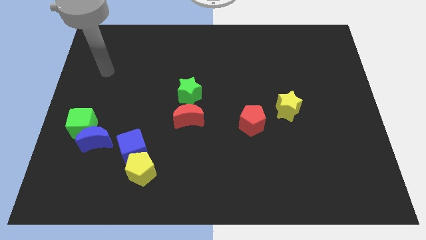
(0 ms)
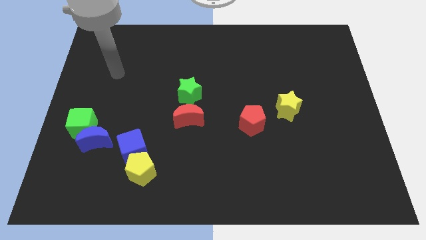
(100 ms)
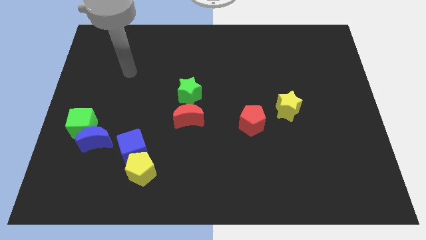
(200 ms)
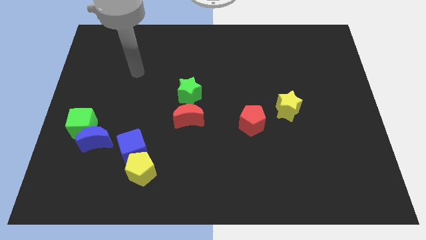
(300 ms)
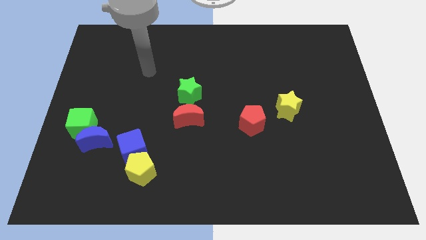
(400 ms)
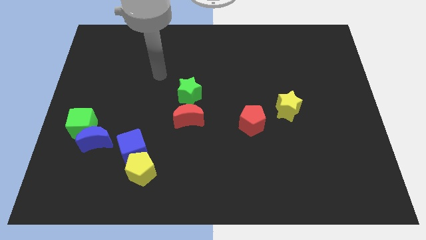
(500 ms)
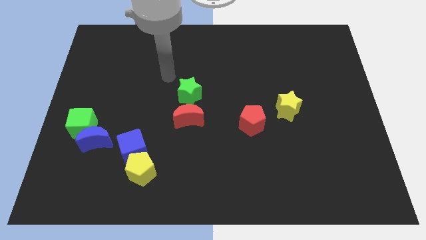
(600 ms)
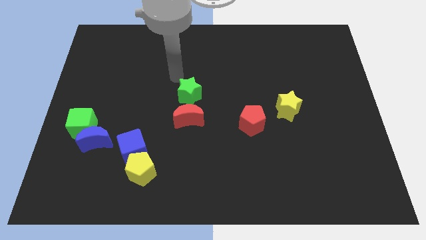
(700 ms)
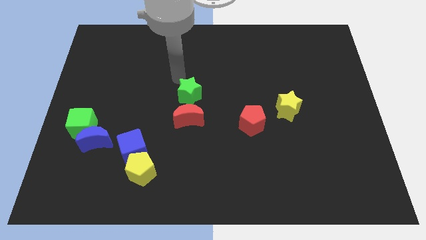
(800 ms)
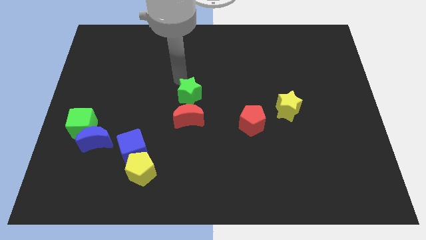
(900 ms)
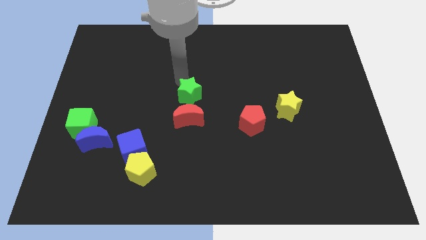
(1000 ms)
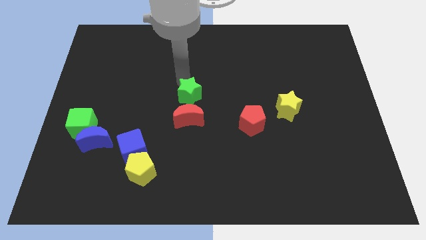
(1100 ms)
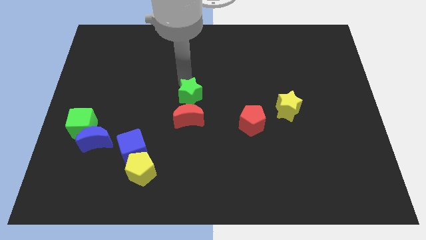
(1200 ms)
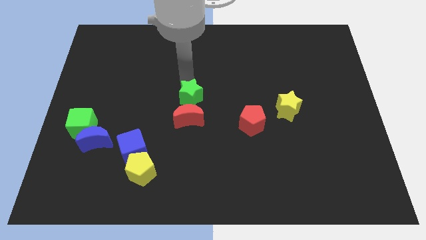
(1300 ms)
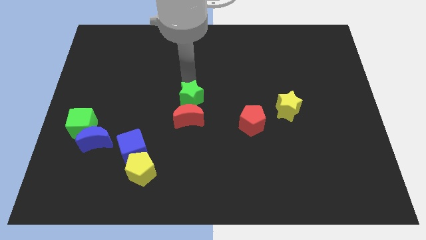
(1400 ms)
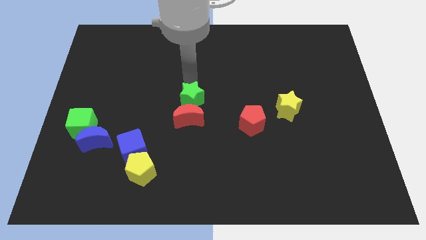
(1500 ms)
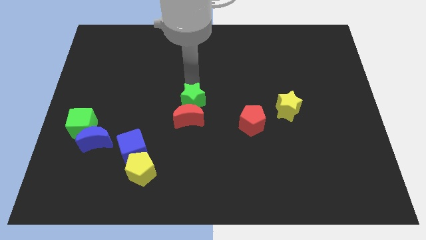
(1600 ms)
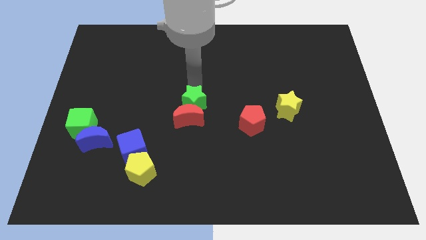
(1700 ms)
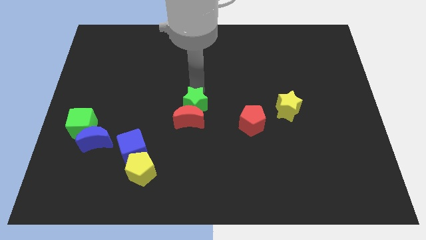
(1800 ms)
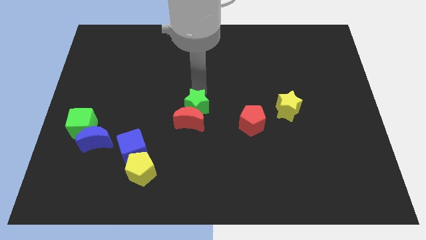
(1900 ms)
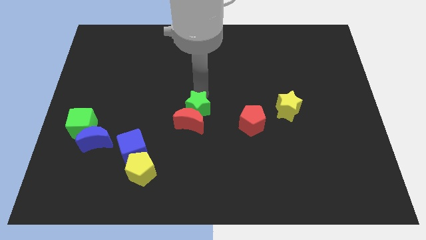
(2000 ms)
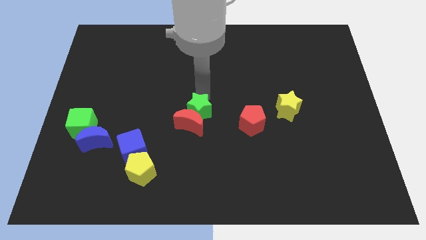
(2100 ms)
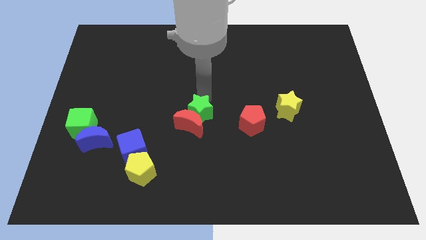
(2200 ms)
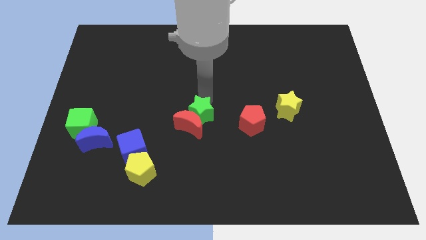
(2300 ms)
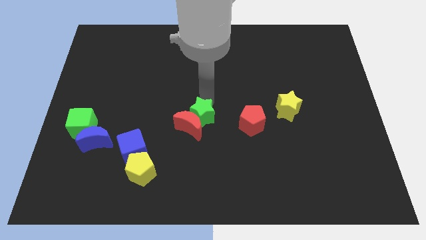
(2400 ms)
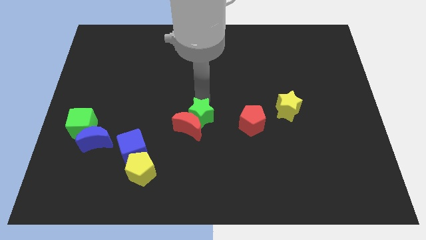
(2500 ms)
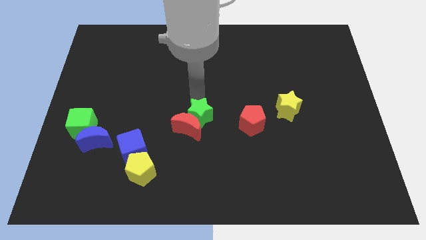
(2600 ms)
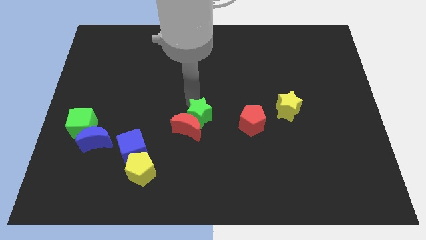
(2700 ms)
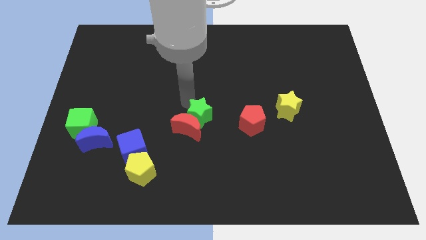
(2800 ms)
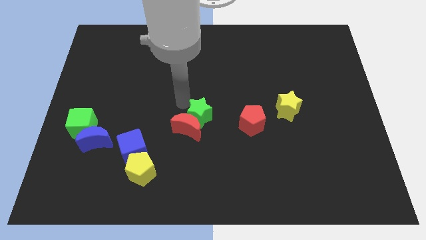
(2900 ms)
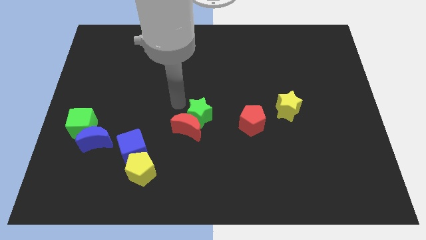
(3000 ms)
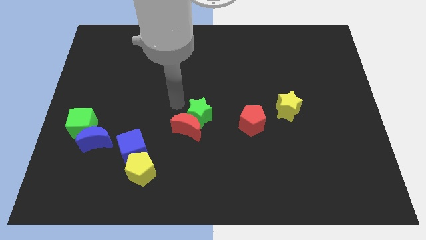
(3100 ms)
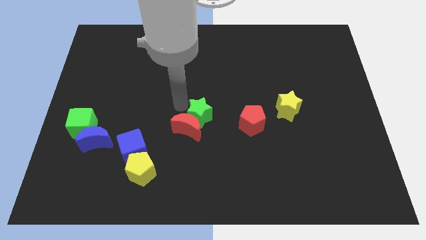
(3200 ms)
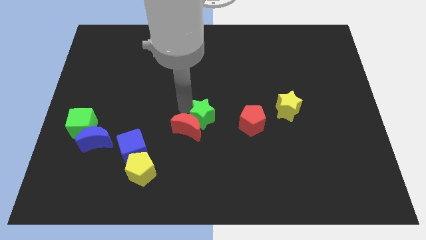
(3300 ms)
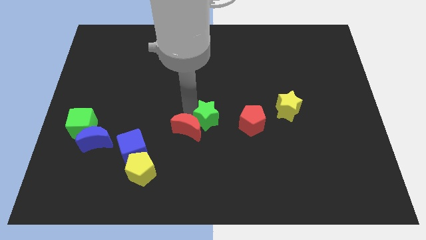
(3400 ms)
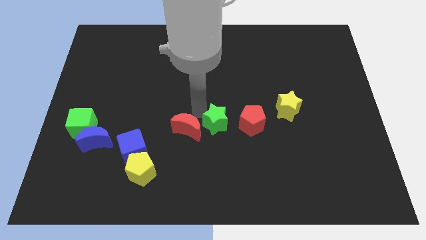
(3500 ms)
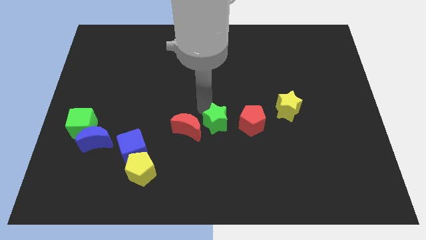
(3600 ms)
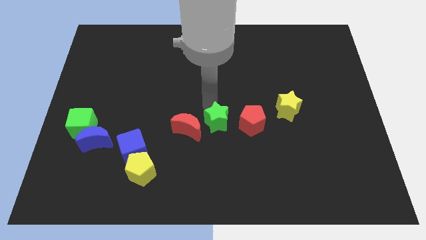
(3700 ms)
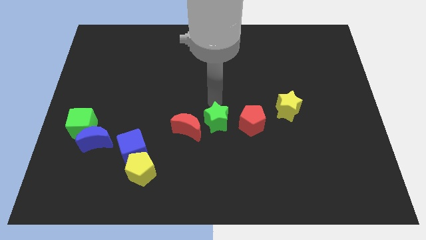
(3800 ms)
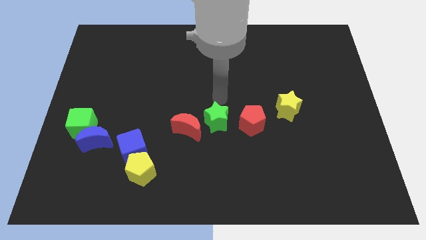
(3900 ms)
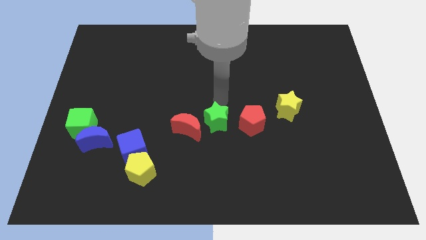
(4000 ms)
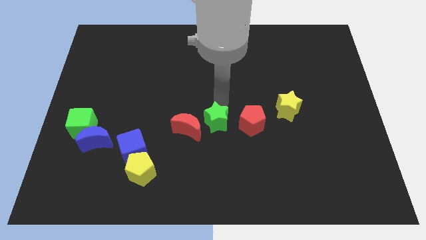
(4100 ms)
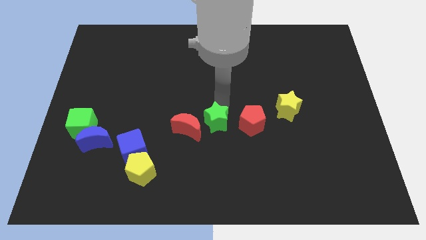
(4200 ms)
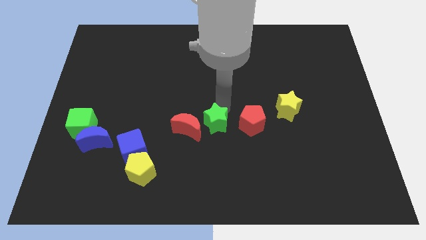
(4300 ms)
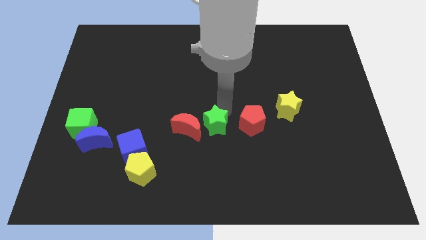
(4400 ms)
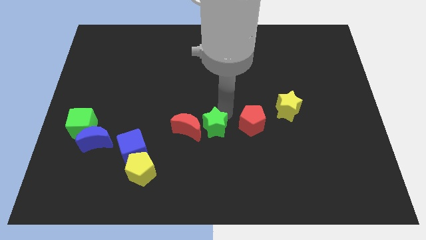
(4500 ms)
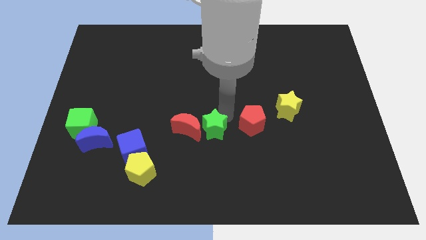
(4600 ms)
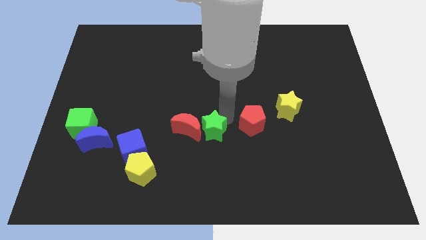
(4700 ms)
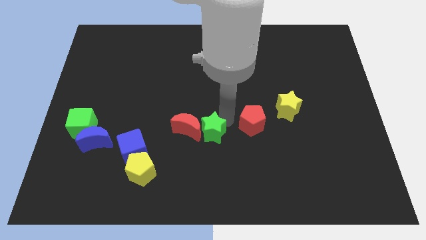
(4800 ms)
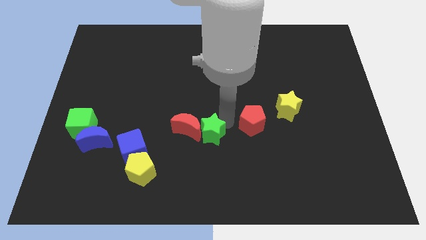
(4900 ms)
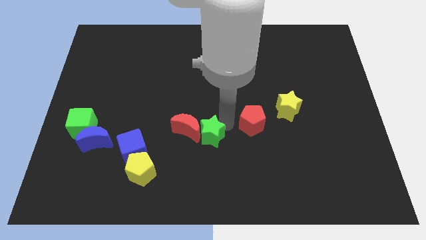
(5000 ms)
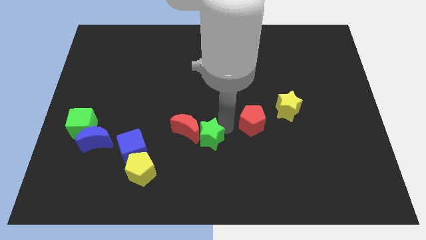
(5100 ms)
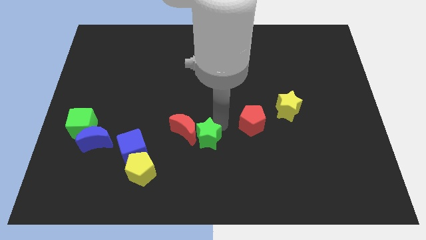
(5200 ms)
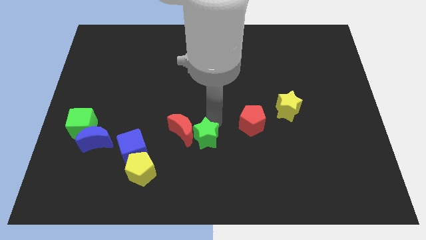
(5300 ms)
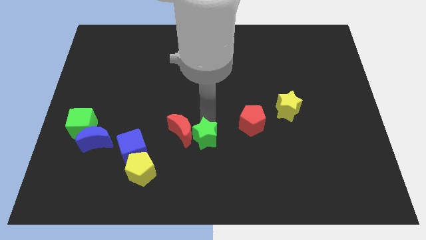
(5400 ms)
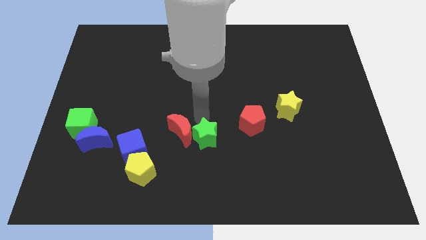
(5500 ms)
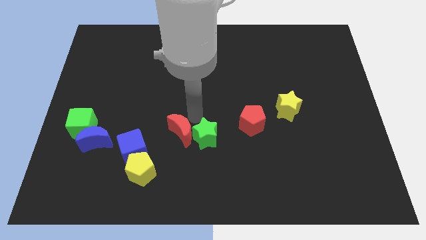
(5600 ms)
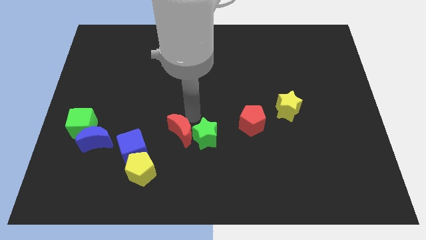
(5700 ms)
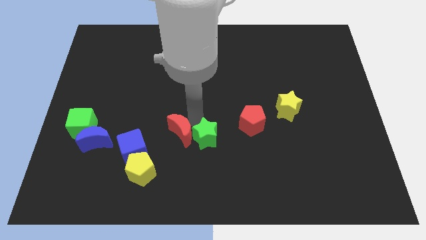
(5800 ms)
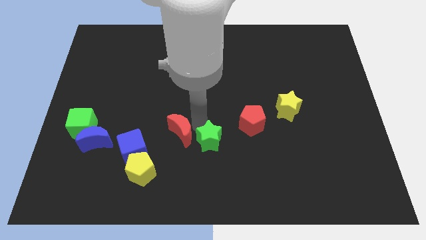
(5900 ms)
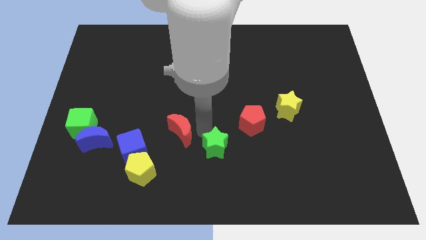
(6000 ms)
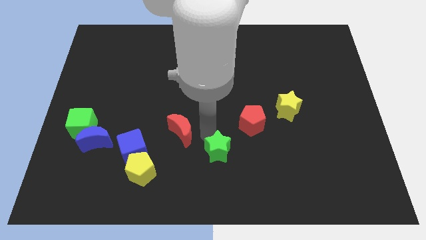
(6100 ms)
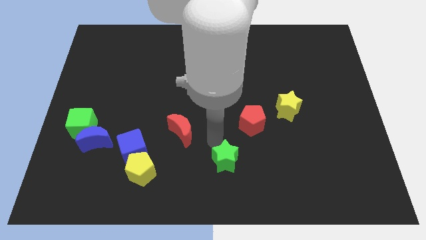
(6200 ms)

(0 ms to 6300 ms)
slide the green star to the bottom side
